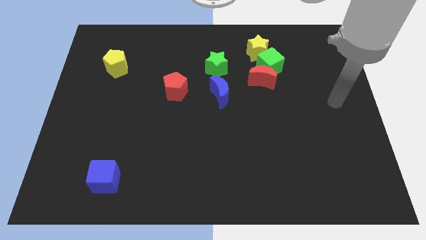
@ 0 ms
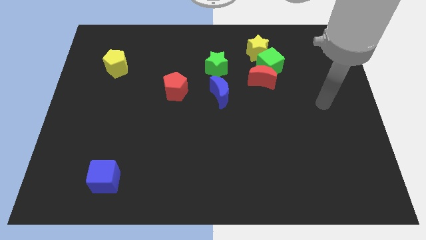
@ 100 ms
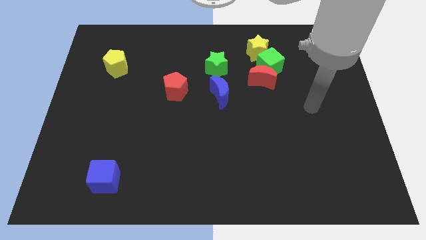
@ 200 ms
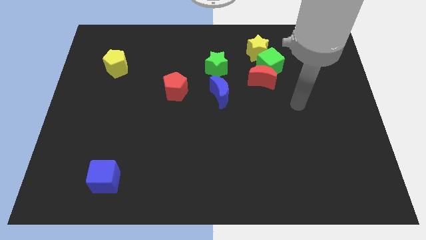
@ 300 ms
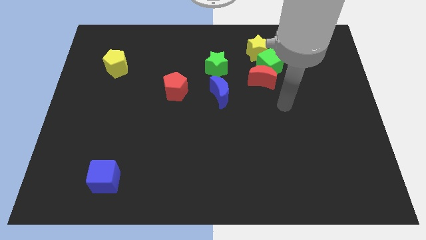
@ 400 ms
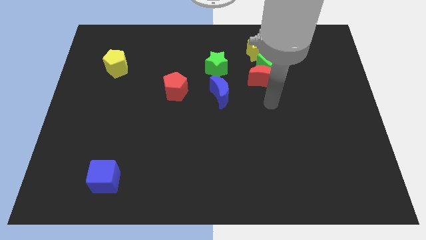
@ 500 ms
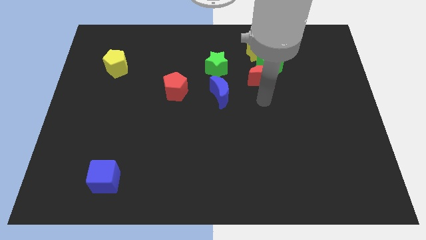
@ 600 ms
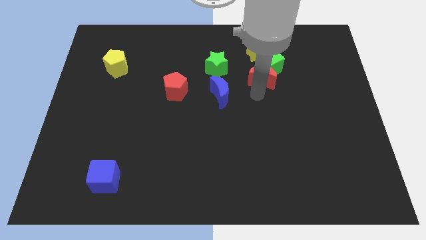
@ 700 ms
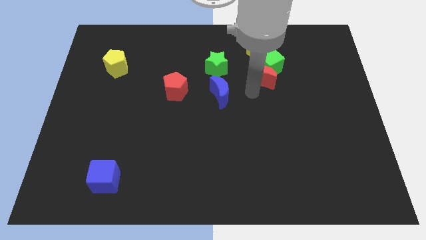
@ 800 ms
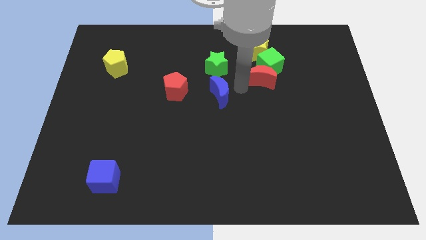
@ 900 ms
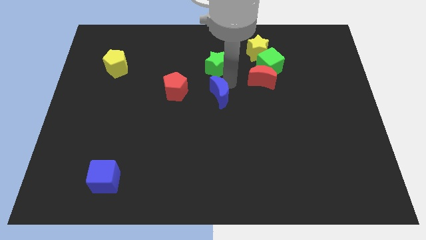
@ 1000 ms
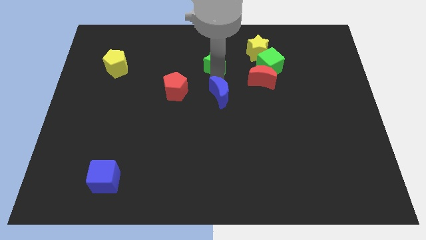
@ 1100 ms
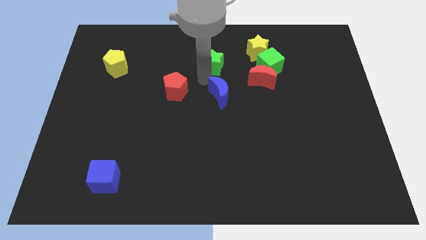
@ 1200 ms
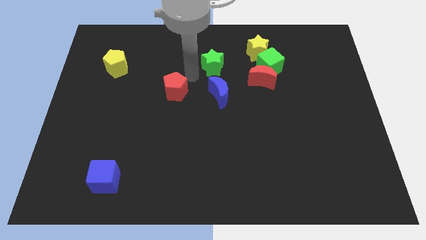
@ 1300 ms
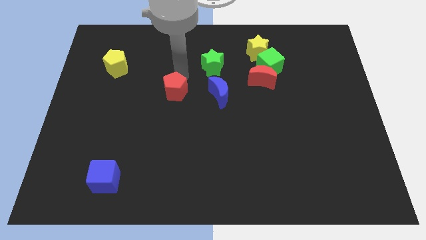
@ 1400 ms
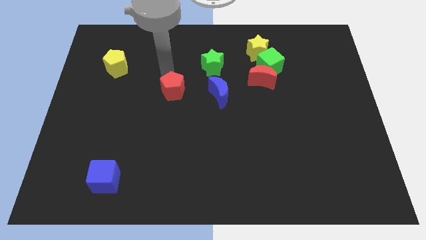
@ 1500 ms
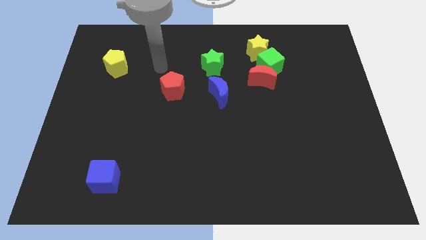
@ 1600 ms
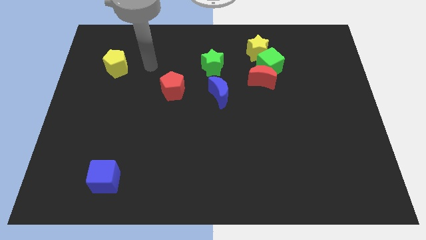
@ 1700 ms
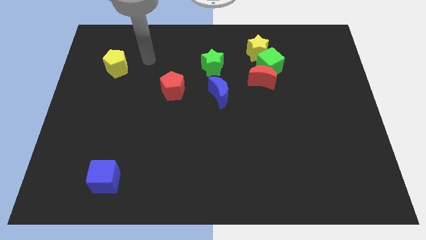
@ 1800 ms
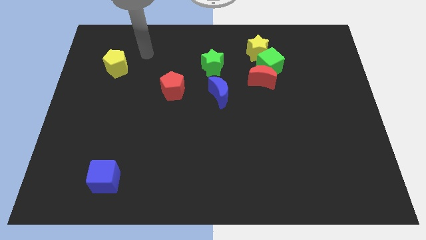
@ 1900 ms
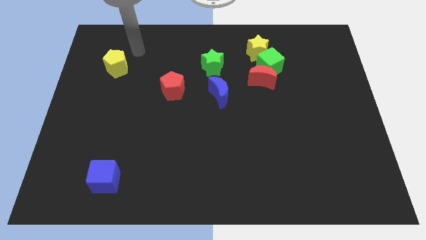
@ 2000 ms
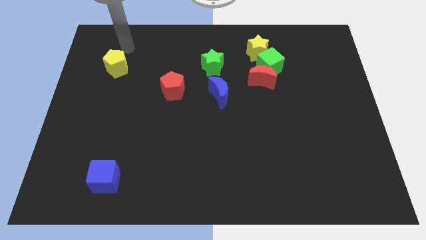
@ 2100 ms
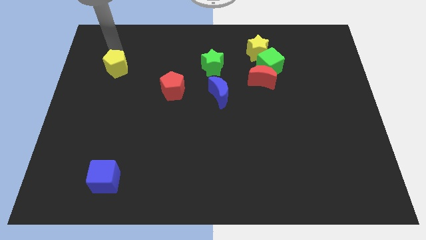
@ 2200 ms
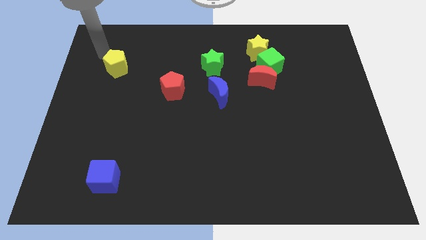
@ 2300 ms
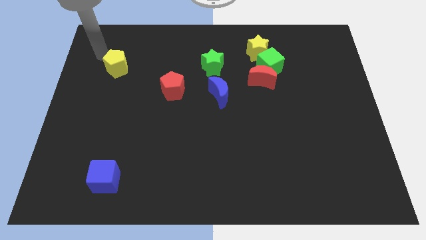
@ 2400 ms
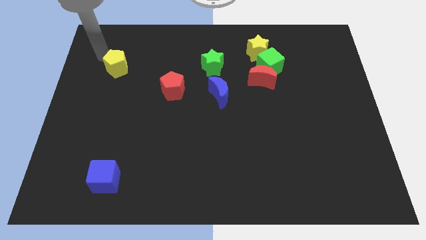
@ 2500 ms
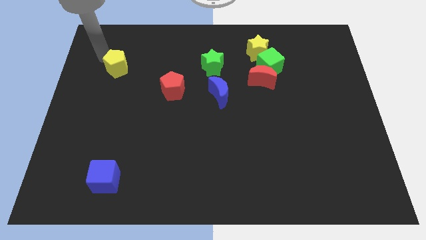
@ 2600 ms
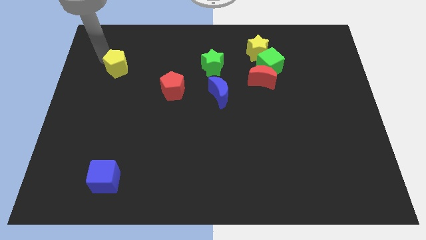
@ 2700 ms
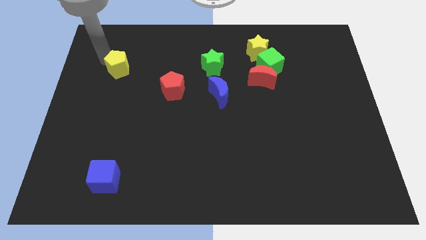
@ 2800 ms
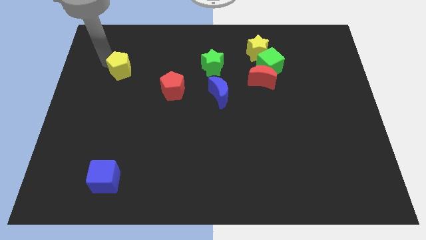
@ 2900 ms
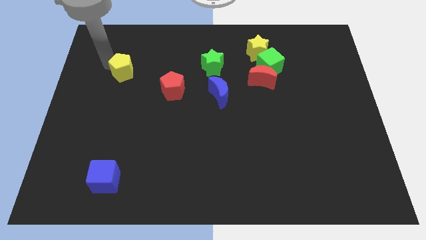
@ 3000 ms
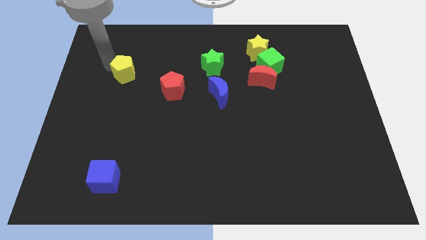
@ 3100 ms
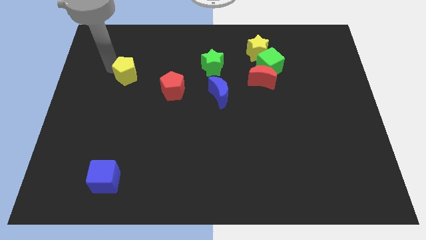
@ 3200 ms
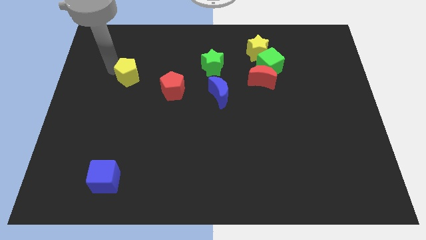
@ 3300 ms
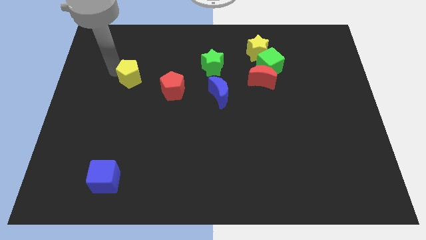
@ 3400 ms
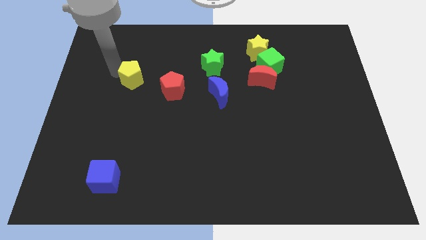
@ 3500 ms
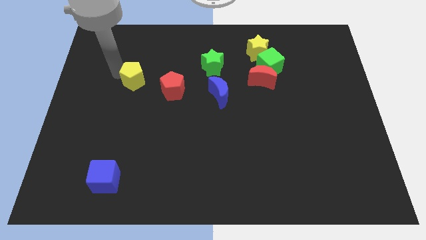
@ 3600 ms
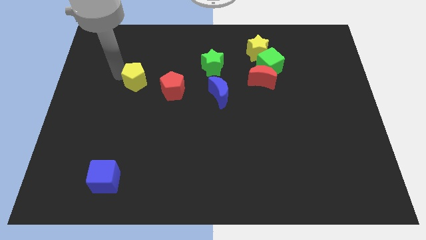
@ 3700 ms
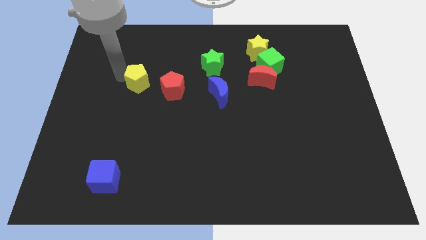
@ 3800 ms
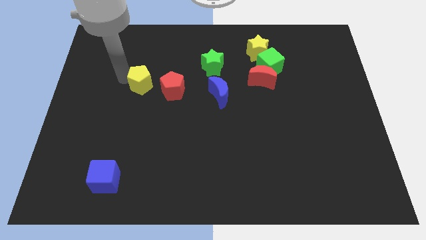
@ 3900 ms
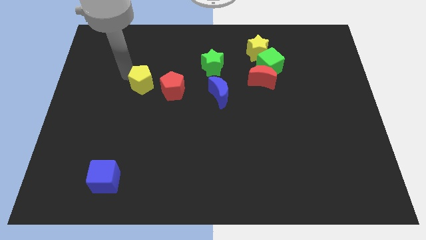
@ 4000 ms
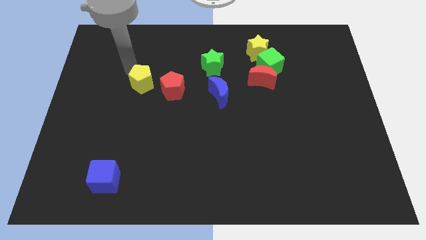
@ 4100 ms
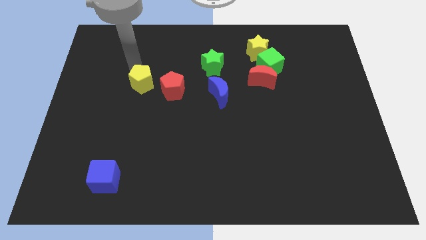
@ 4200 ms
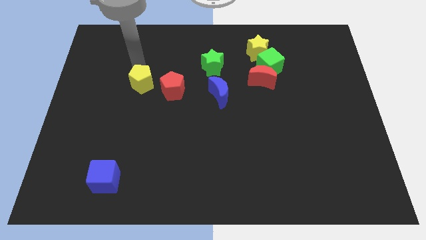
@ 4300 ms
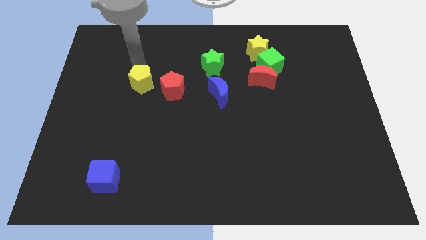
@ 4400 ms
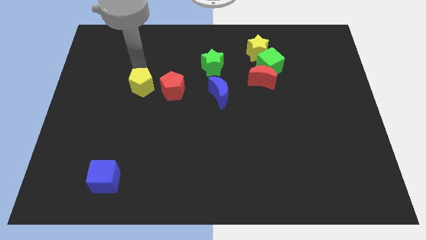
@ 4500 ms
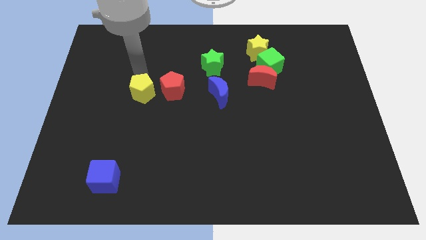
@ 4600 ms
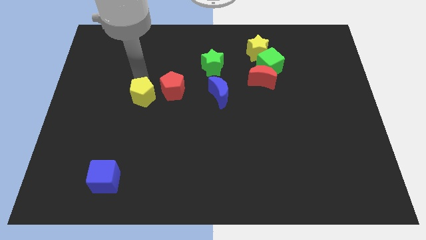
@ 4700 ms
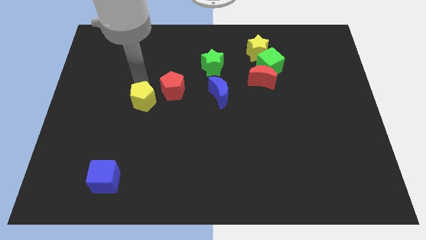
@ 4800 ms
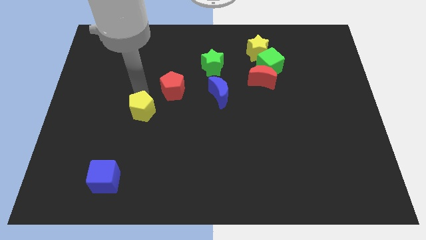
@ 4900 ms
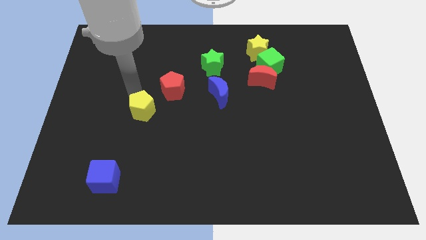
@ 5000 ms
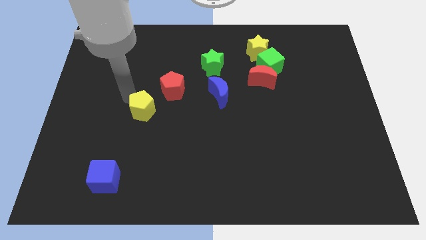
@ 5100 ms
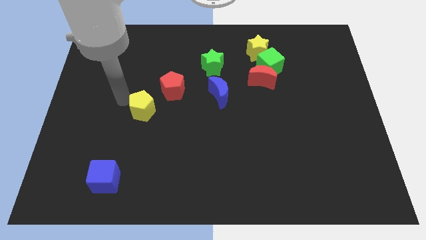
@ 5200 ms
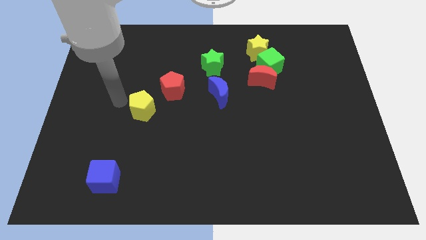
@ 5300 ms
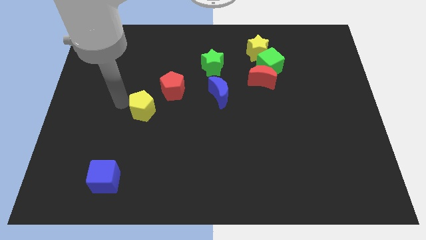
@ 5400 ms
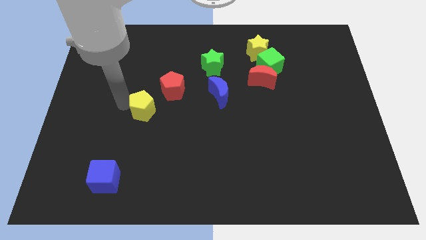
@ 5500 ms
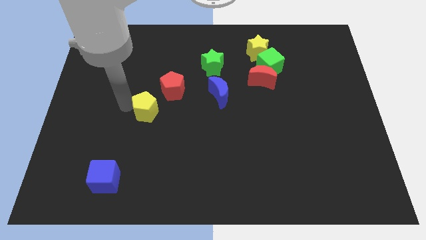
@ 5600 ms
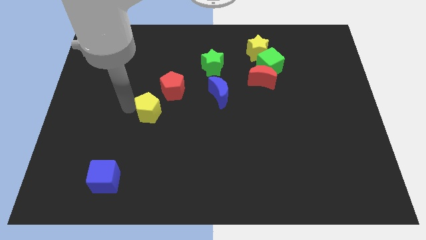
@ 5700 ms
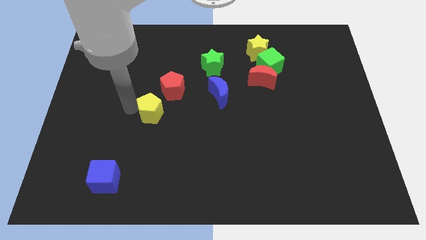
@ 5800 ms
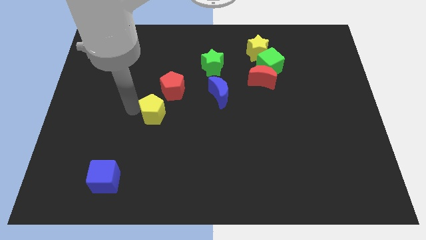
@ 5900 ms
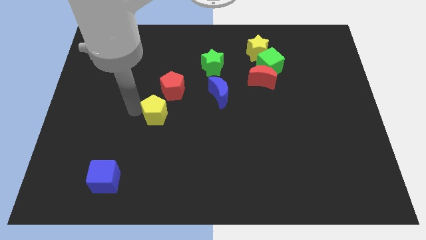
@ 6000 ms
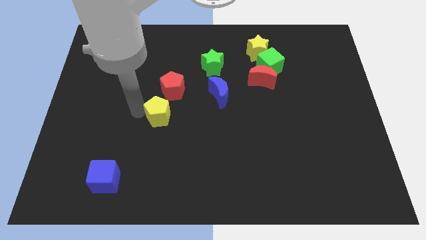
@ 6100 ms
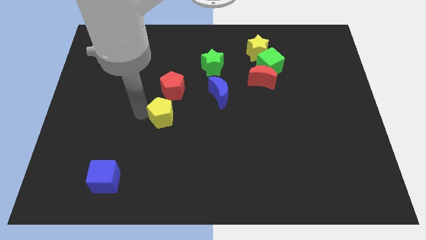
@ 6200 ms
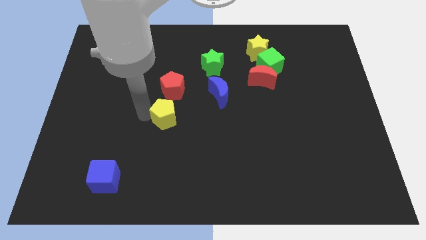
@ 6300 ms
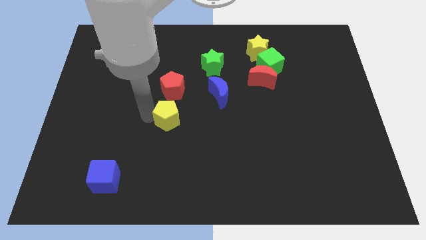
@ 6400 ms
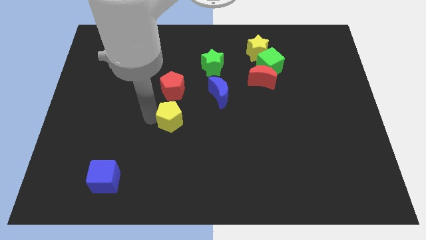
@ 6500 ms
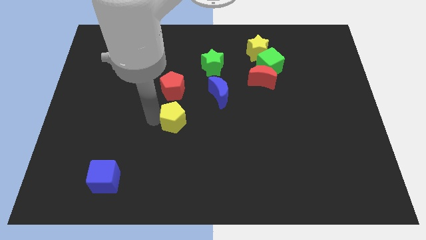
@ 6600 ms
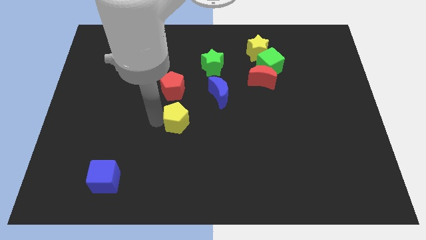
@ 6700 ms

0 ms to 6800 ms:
move the yellow pentagon diagonally down and to the left of the blue moon

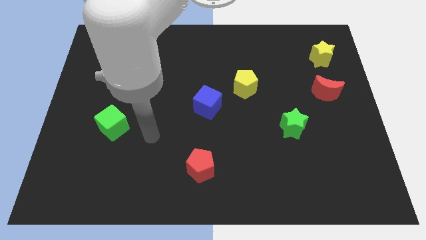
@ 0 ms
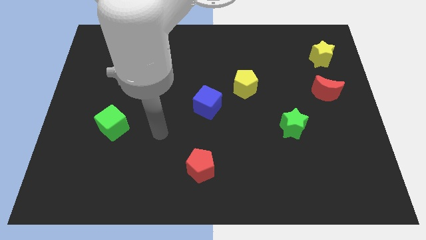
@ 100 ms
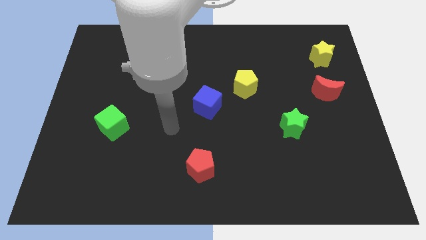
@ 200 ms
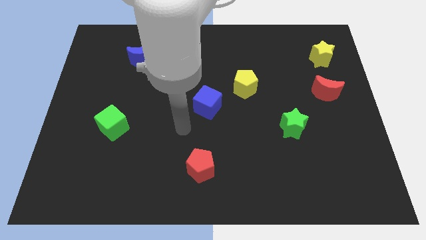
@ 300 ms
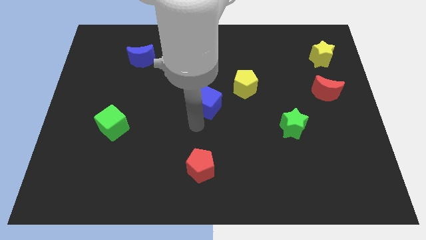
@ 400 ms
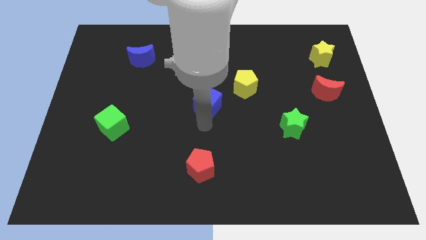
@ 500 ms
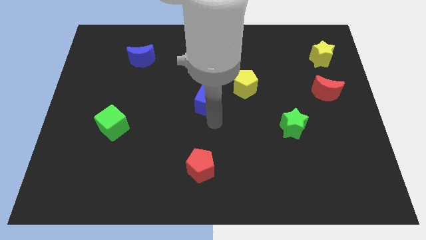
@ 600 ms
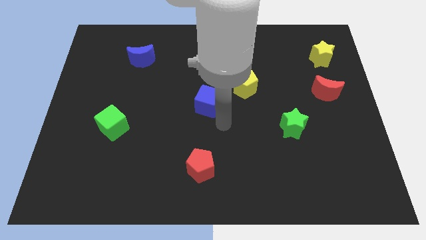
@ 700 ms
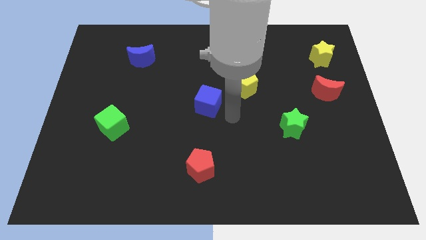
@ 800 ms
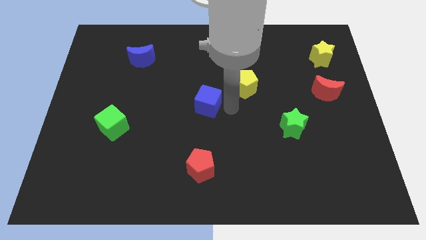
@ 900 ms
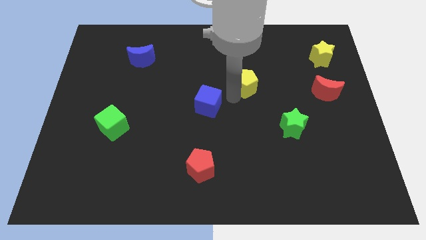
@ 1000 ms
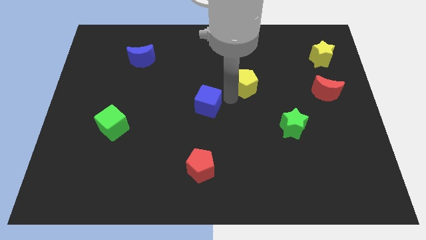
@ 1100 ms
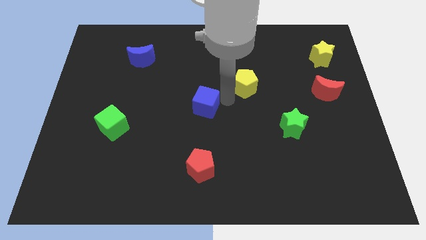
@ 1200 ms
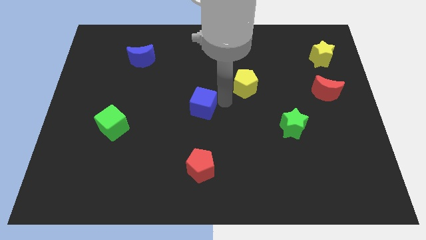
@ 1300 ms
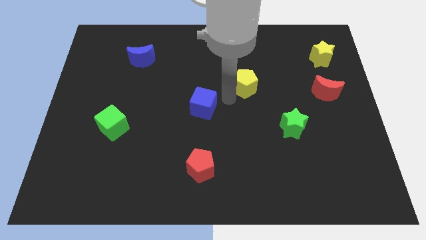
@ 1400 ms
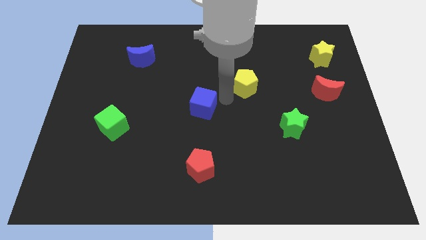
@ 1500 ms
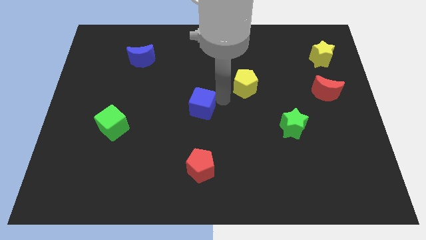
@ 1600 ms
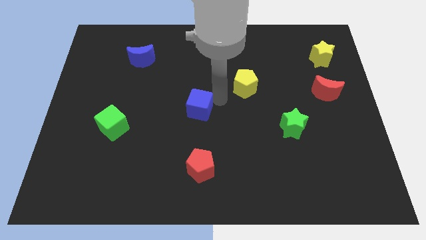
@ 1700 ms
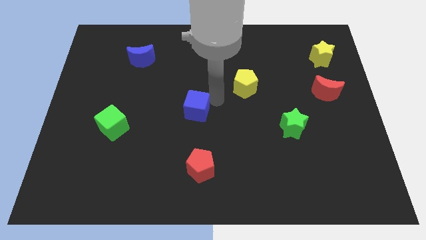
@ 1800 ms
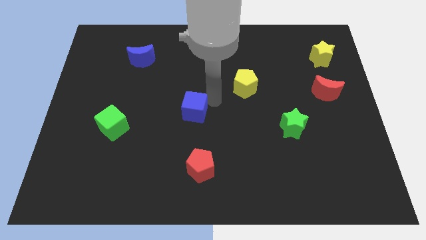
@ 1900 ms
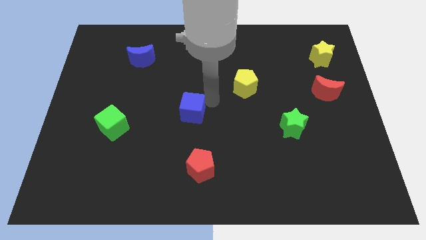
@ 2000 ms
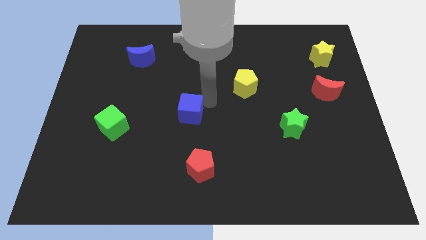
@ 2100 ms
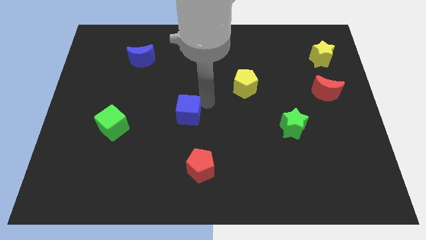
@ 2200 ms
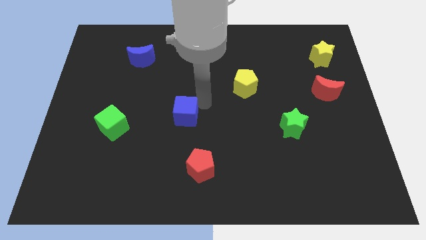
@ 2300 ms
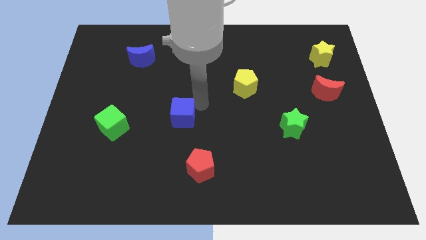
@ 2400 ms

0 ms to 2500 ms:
slide the blue cube to the right of the green cube
